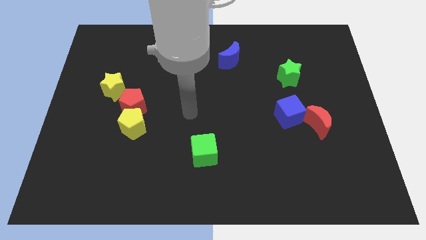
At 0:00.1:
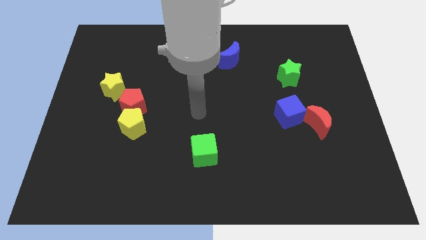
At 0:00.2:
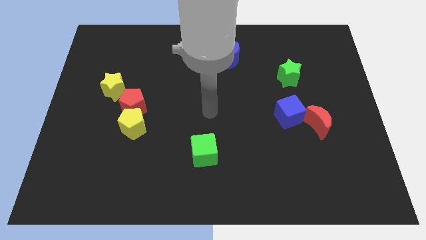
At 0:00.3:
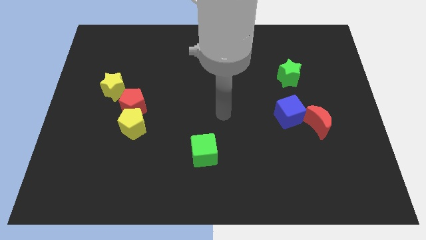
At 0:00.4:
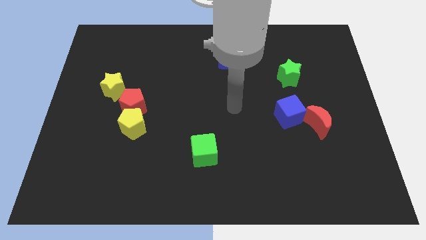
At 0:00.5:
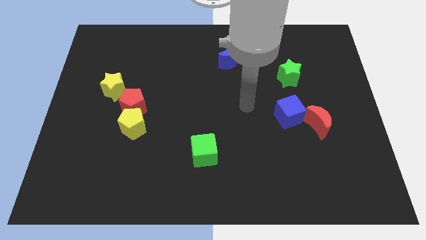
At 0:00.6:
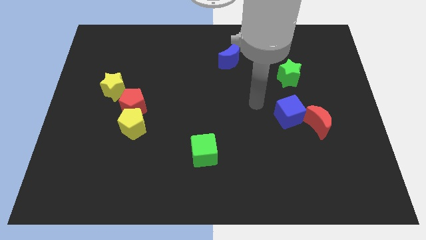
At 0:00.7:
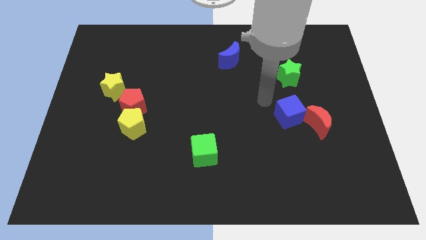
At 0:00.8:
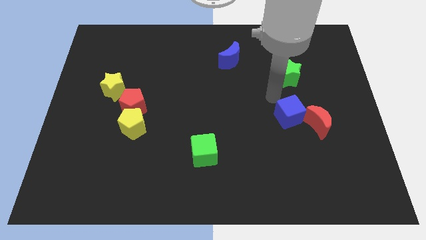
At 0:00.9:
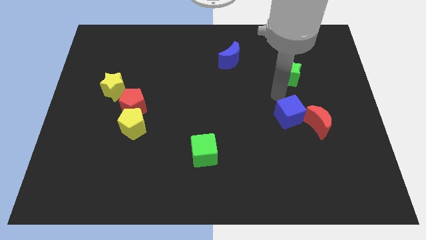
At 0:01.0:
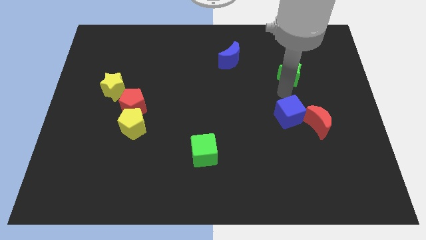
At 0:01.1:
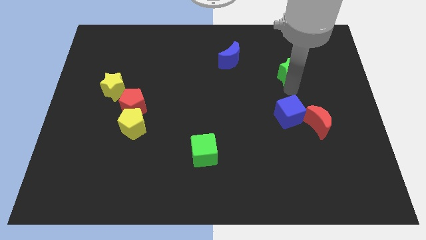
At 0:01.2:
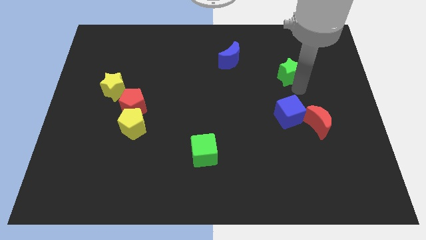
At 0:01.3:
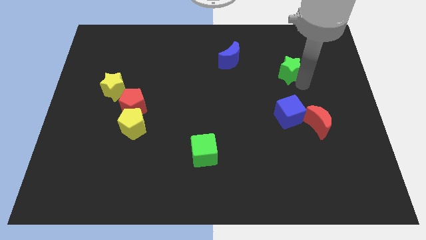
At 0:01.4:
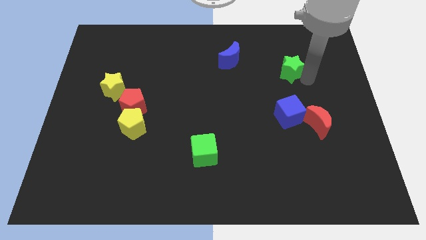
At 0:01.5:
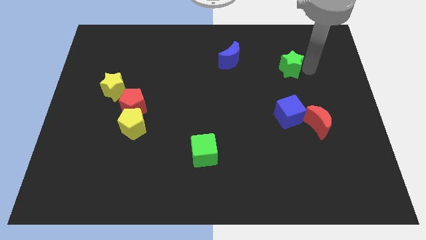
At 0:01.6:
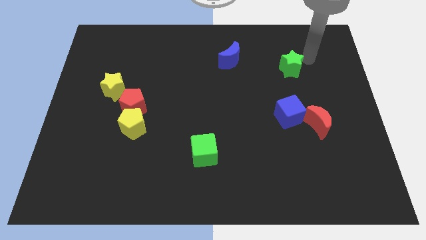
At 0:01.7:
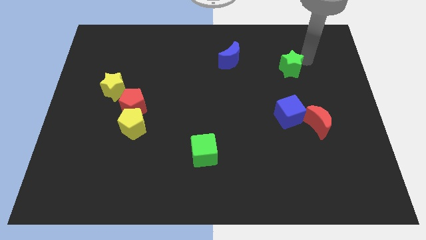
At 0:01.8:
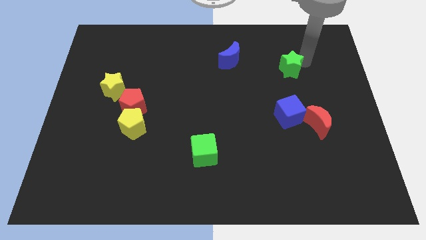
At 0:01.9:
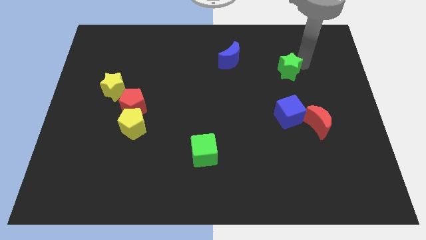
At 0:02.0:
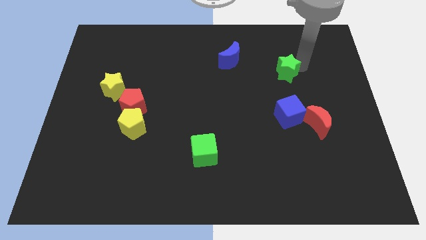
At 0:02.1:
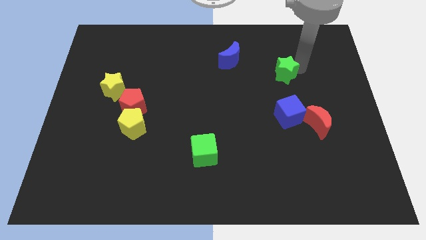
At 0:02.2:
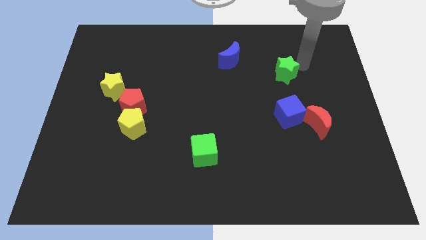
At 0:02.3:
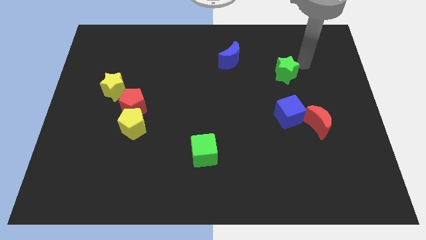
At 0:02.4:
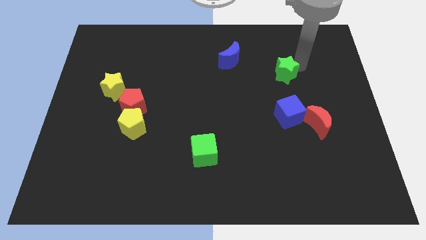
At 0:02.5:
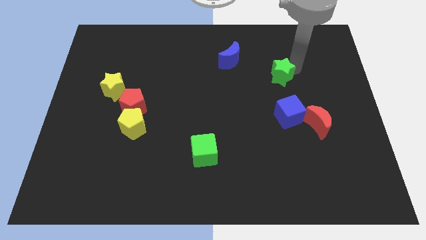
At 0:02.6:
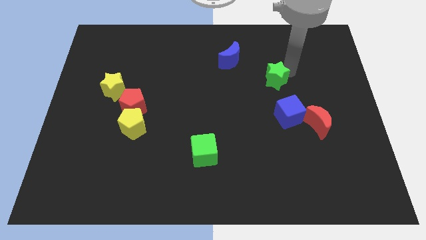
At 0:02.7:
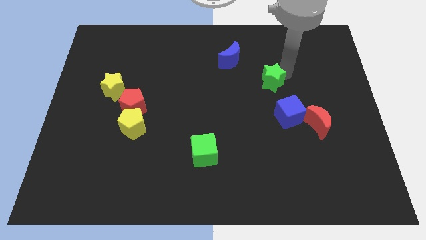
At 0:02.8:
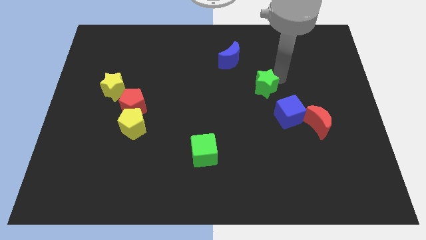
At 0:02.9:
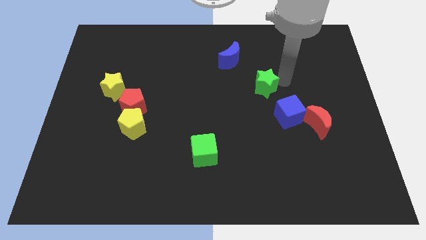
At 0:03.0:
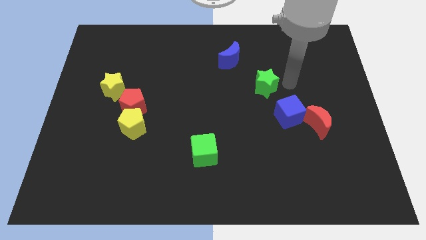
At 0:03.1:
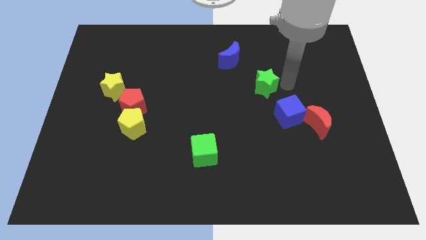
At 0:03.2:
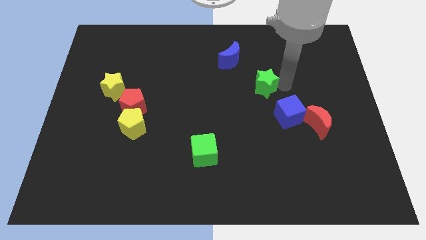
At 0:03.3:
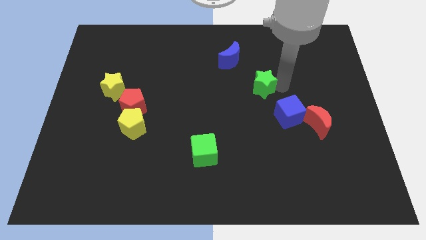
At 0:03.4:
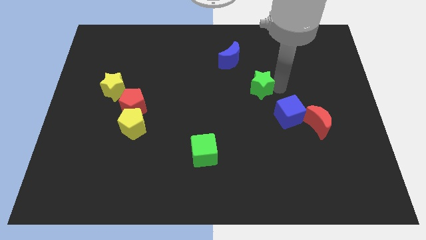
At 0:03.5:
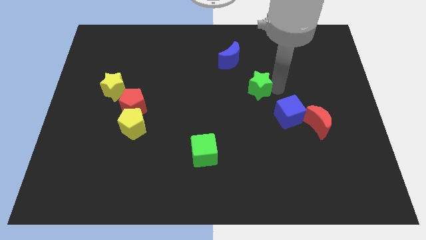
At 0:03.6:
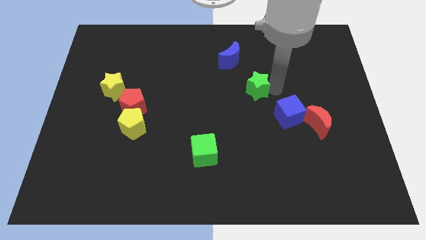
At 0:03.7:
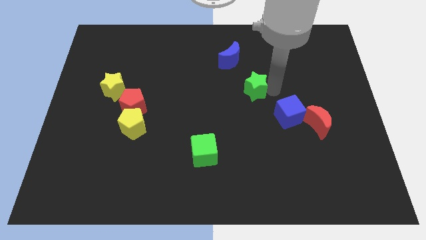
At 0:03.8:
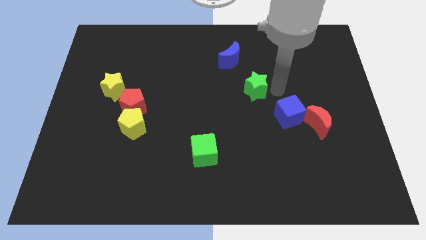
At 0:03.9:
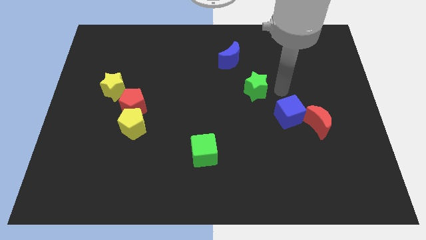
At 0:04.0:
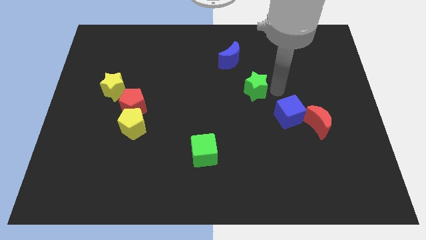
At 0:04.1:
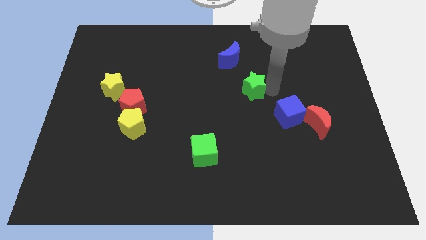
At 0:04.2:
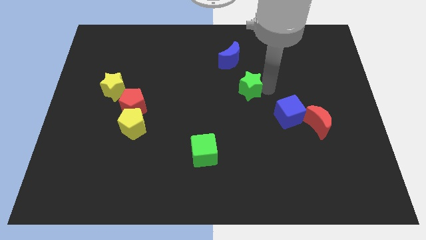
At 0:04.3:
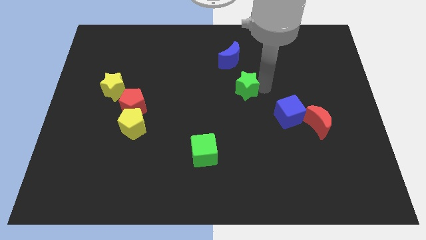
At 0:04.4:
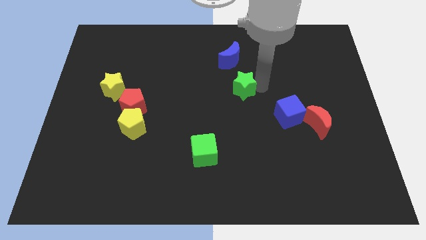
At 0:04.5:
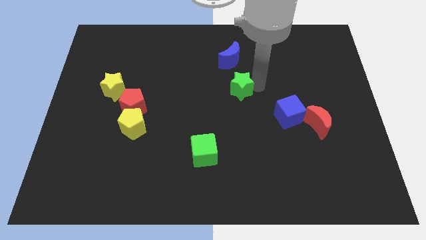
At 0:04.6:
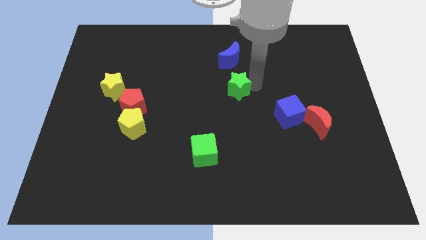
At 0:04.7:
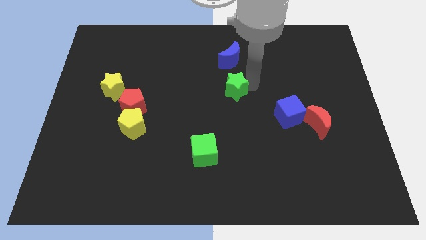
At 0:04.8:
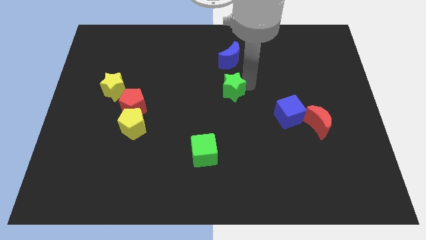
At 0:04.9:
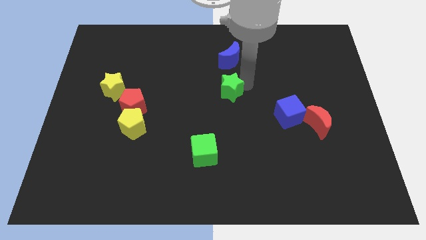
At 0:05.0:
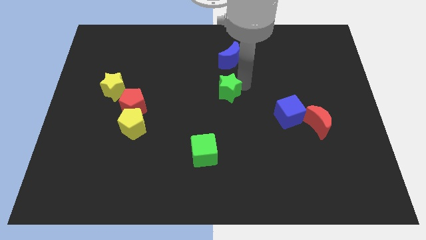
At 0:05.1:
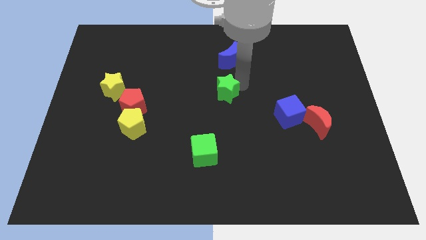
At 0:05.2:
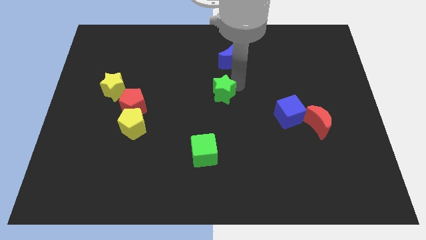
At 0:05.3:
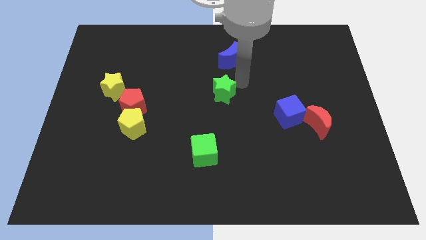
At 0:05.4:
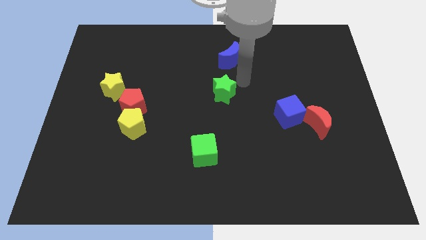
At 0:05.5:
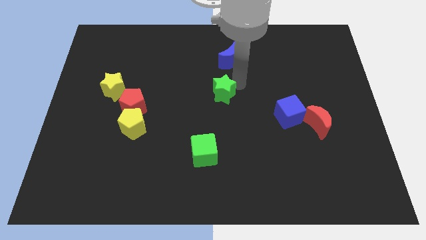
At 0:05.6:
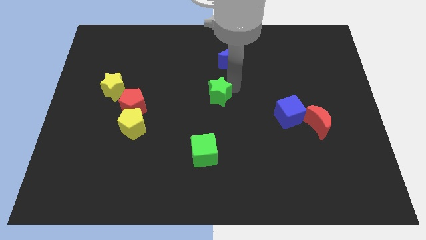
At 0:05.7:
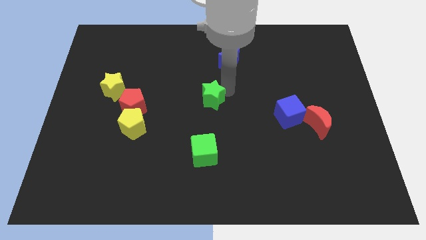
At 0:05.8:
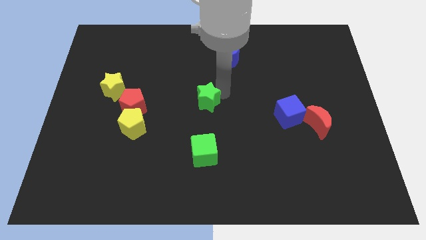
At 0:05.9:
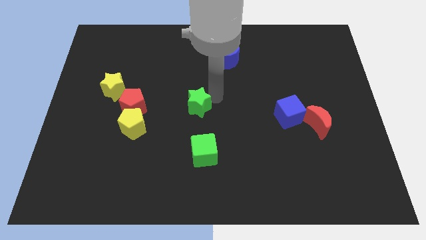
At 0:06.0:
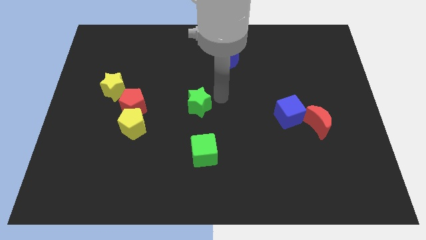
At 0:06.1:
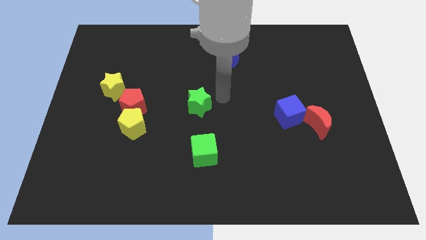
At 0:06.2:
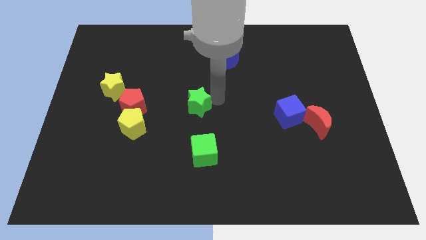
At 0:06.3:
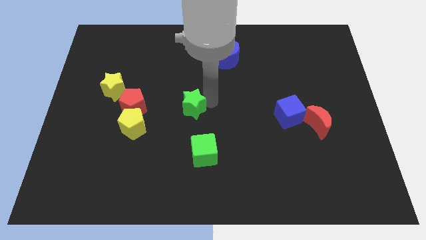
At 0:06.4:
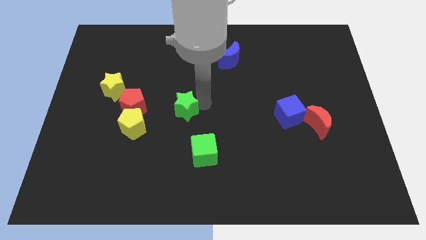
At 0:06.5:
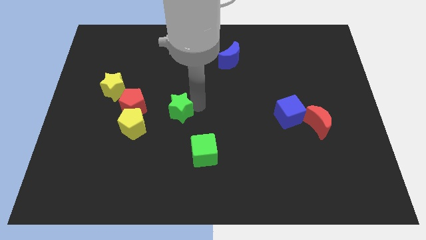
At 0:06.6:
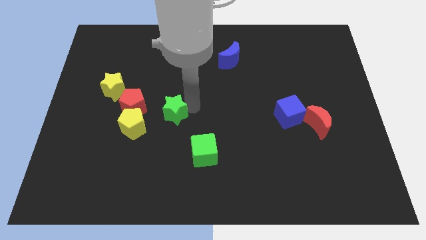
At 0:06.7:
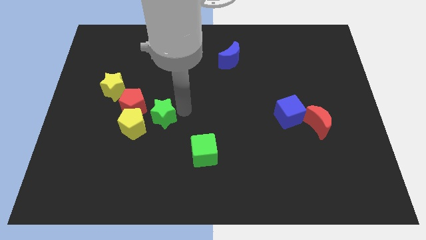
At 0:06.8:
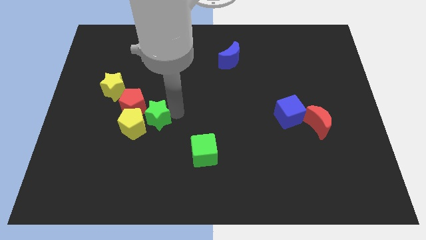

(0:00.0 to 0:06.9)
put the green star to the yellow pentagon

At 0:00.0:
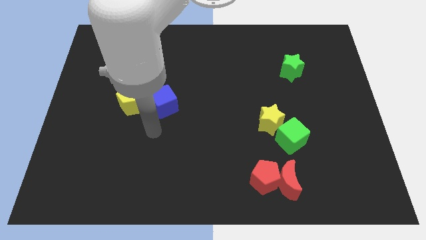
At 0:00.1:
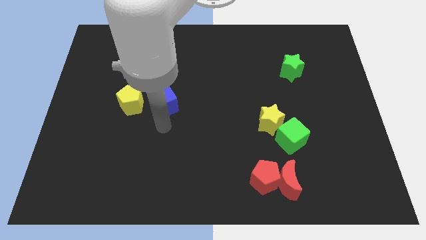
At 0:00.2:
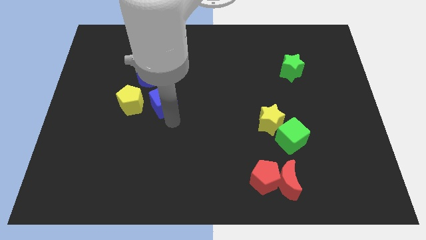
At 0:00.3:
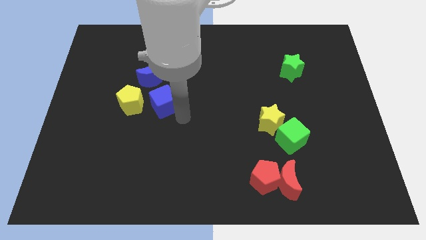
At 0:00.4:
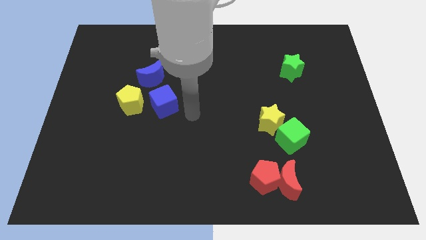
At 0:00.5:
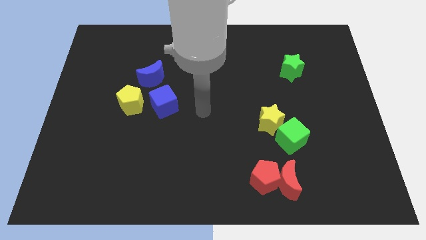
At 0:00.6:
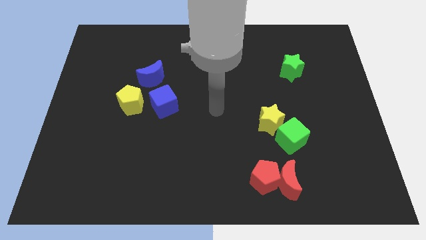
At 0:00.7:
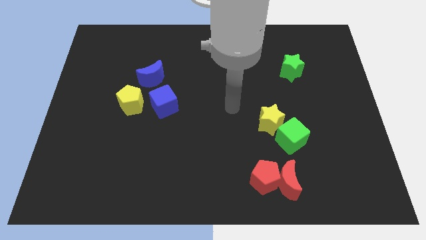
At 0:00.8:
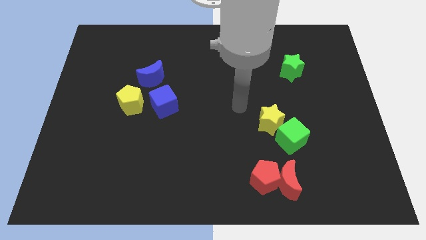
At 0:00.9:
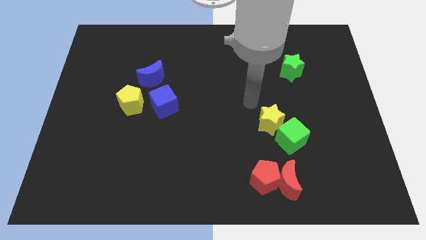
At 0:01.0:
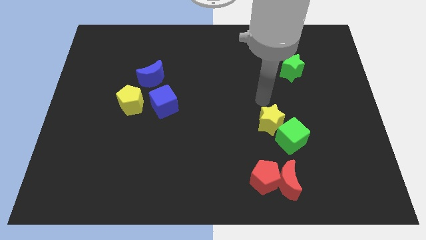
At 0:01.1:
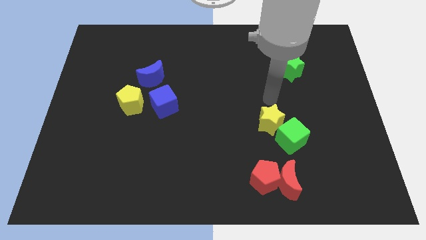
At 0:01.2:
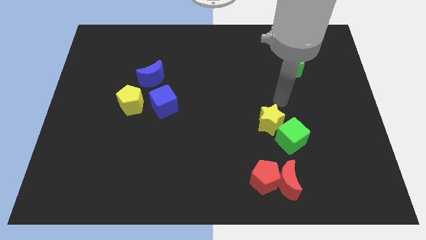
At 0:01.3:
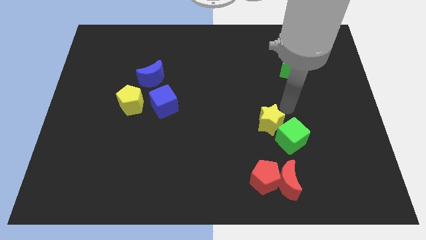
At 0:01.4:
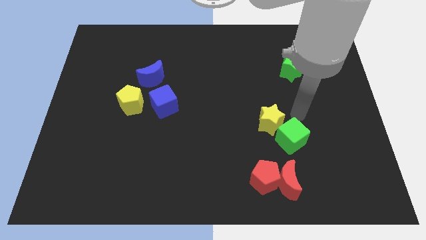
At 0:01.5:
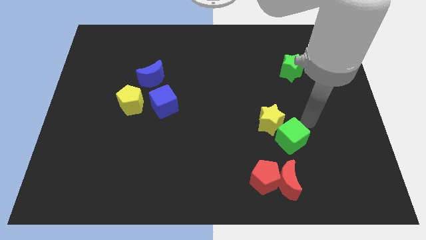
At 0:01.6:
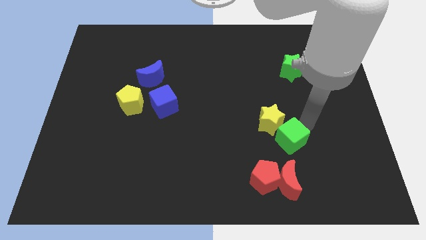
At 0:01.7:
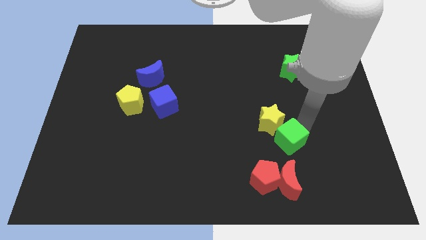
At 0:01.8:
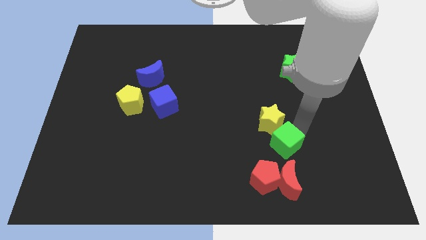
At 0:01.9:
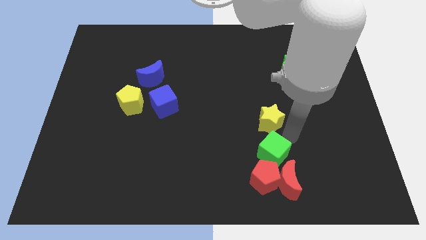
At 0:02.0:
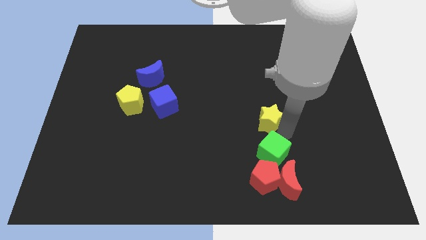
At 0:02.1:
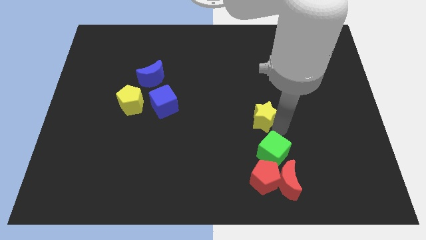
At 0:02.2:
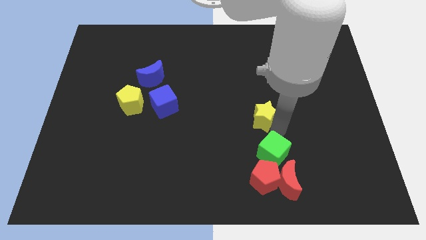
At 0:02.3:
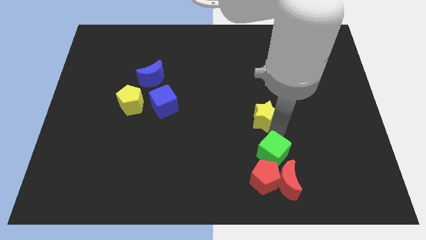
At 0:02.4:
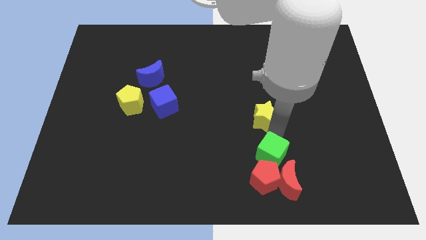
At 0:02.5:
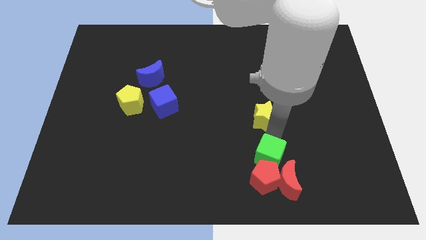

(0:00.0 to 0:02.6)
put the green cube next to the red pentagon
